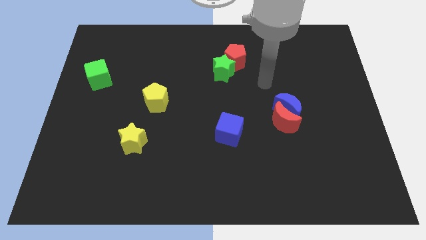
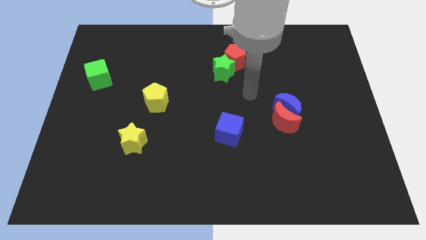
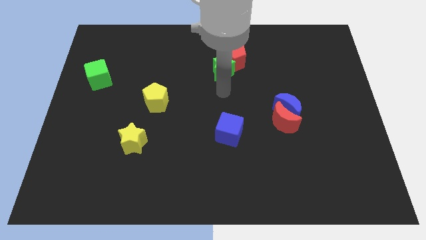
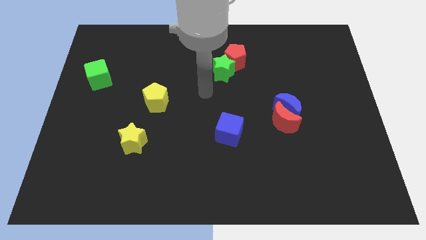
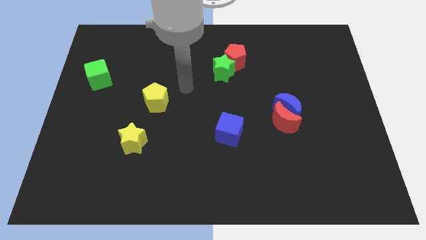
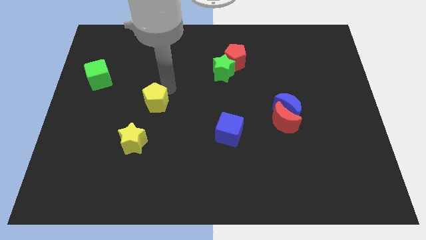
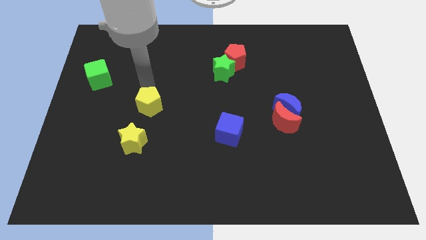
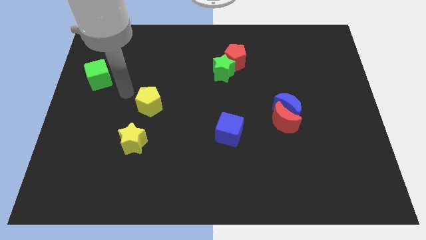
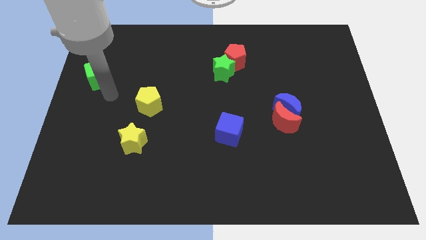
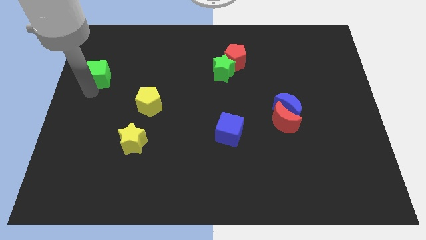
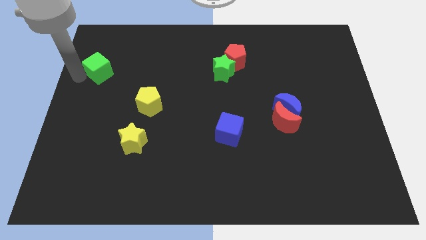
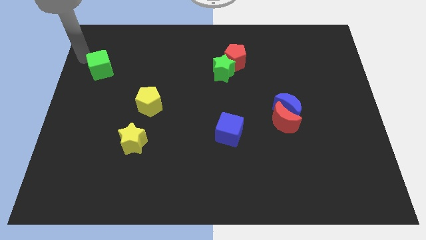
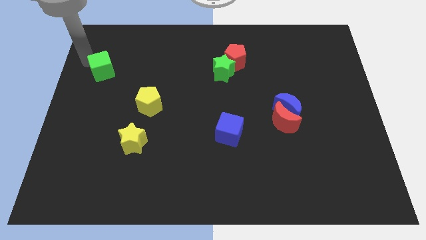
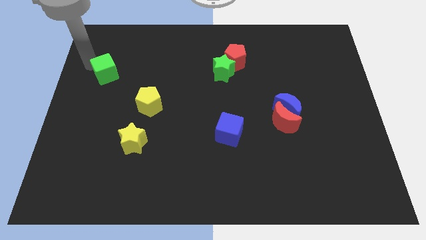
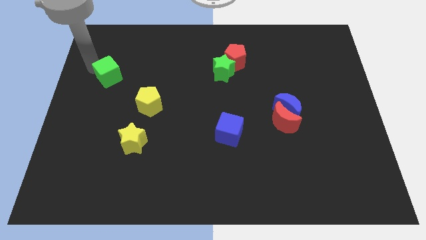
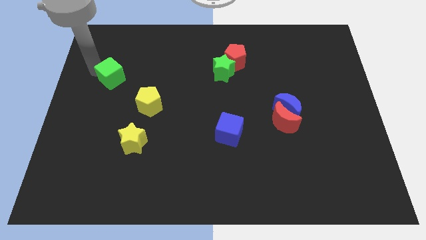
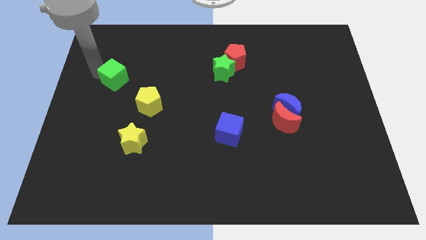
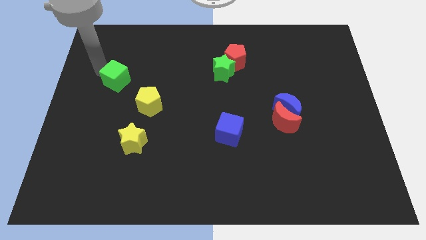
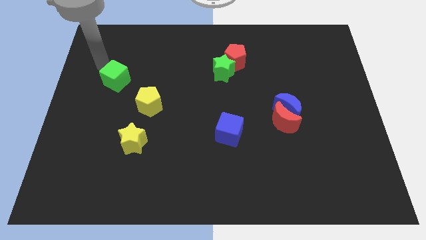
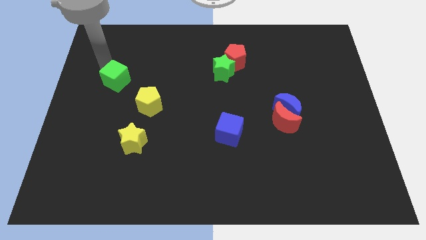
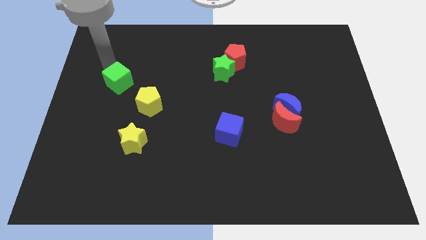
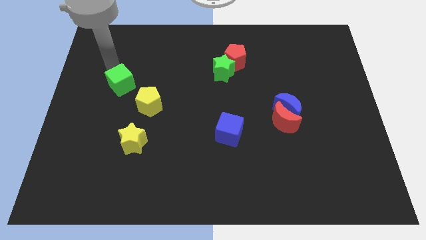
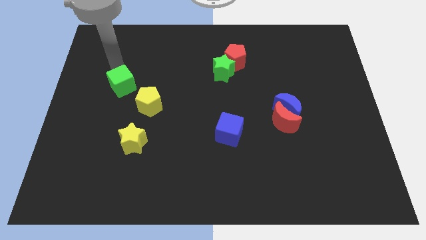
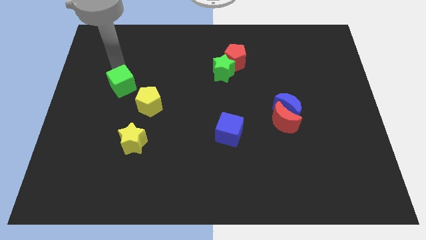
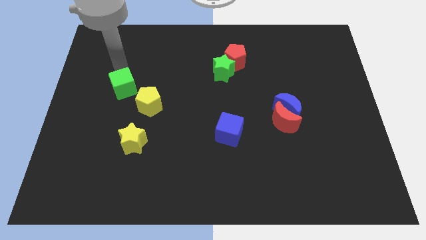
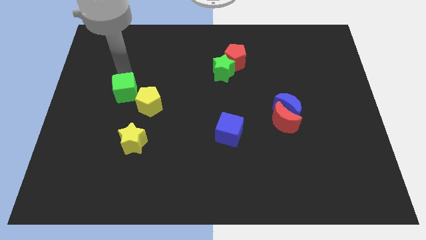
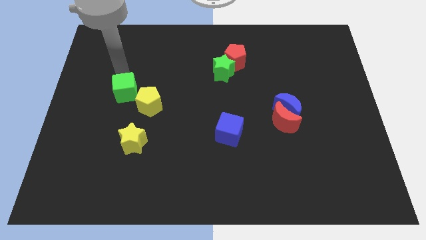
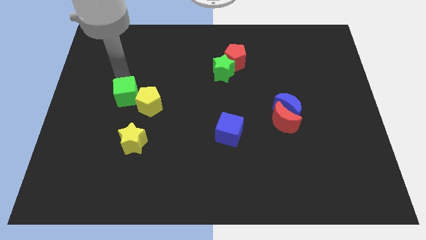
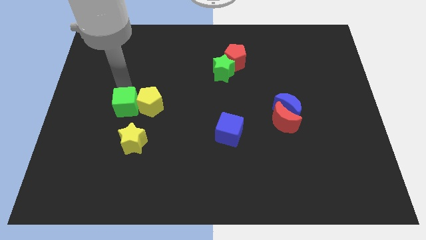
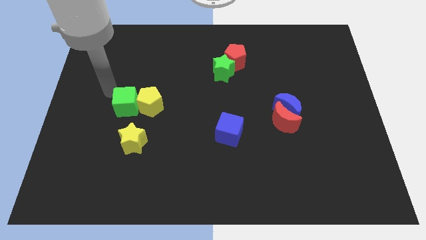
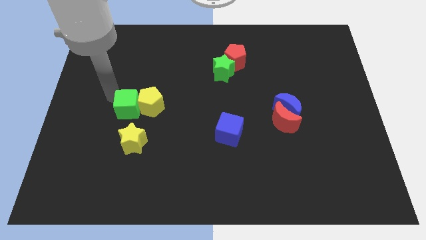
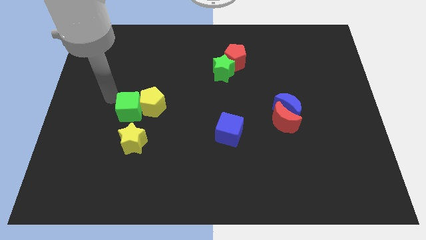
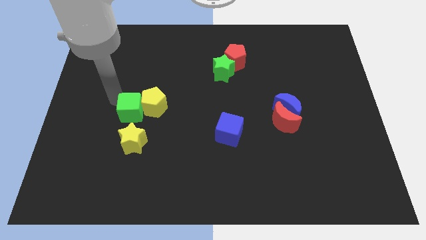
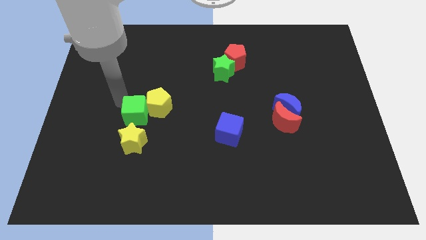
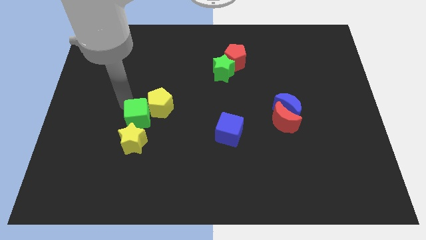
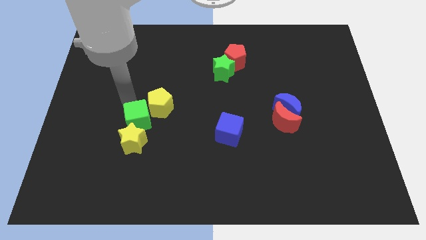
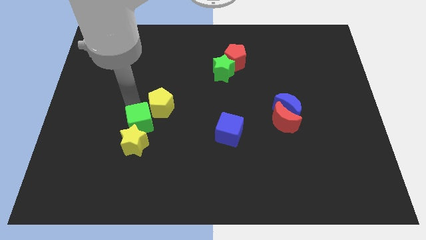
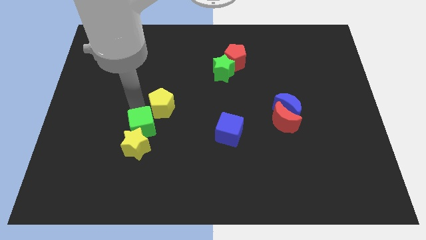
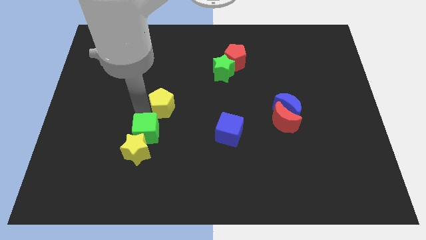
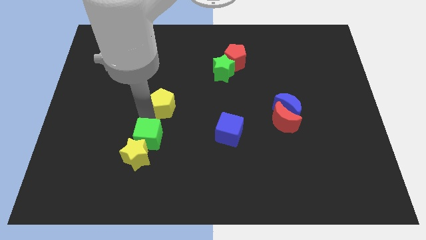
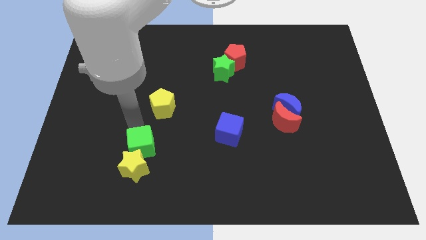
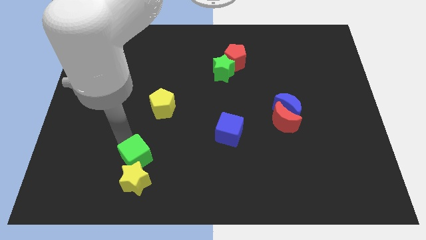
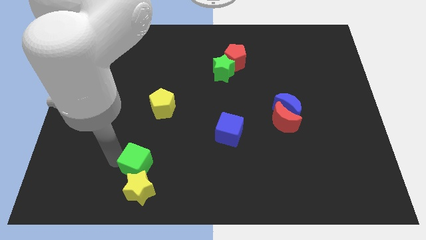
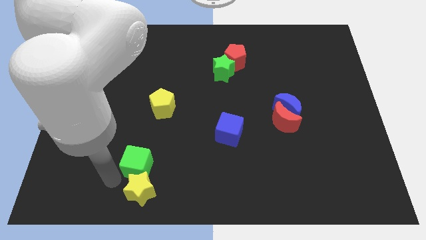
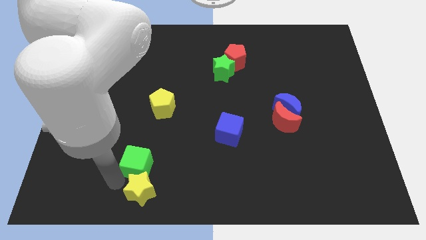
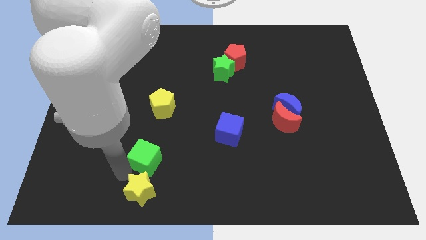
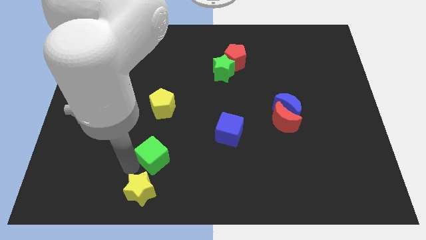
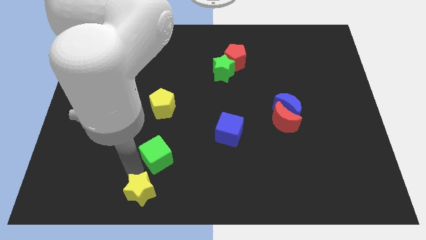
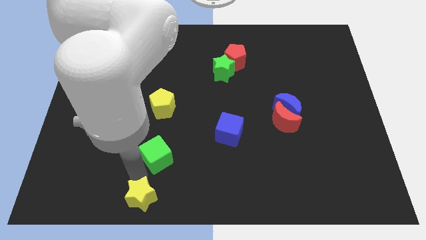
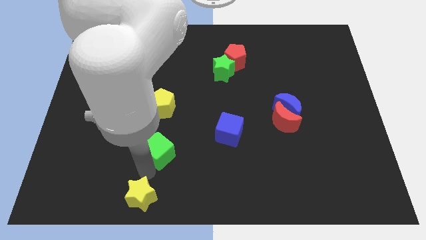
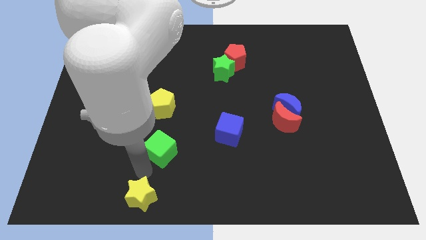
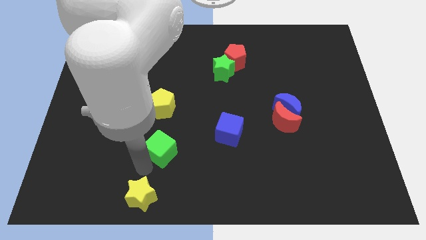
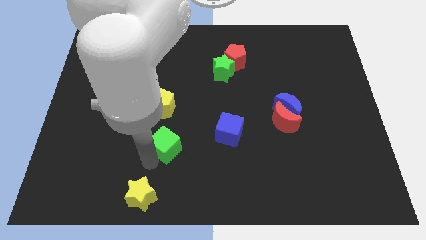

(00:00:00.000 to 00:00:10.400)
push the green cube to the left side of the blue cube

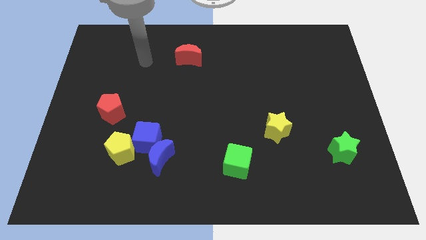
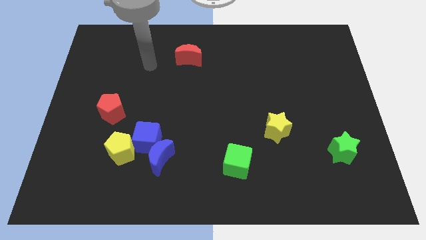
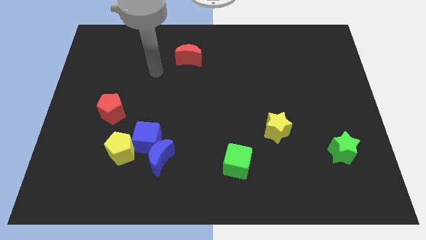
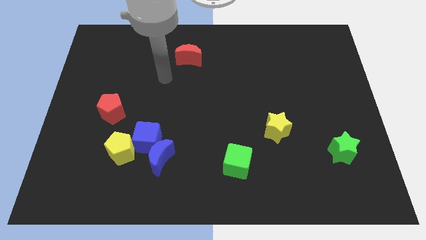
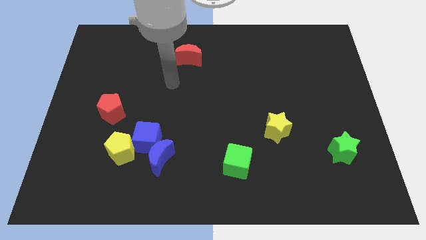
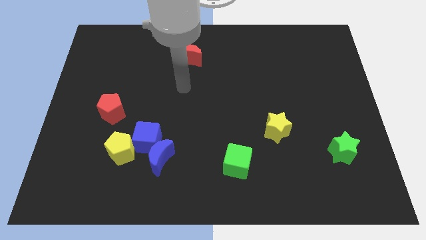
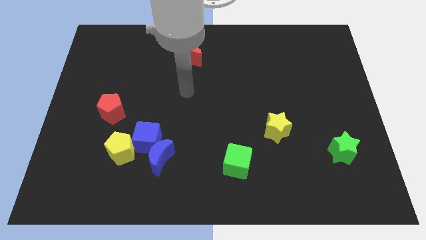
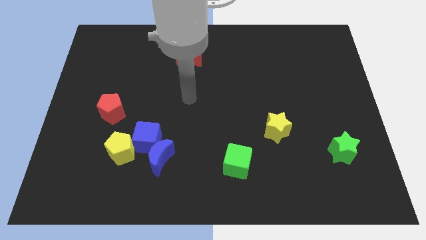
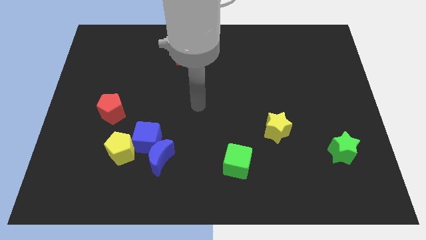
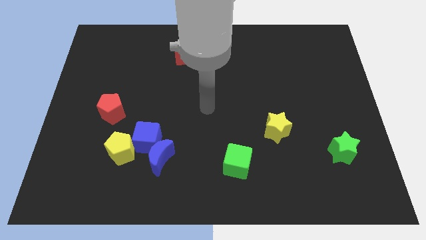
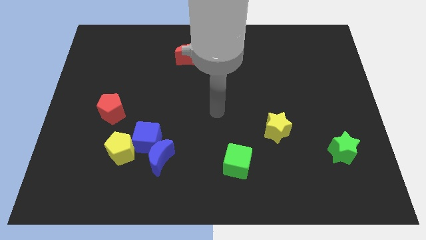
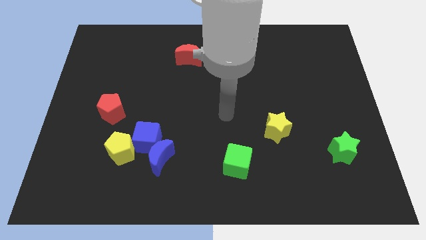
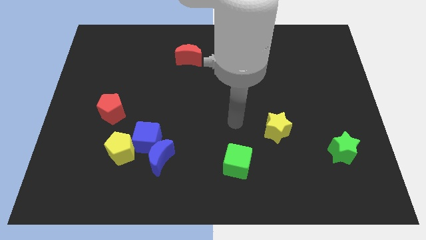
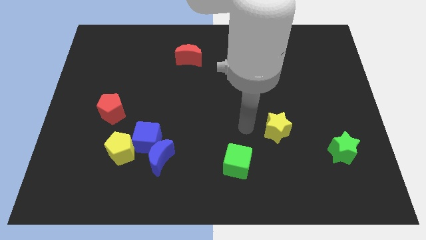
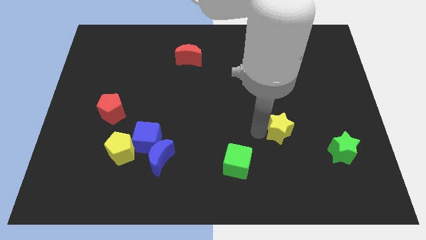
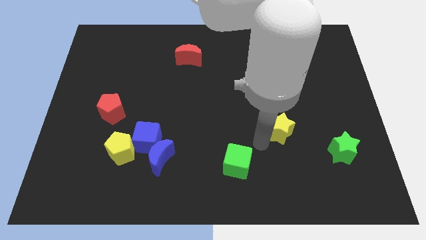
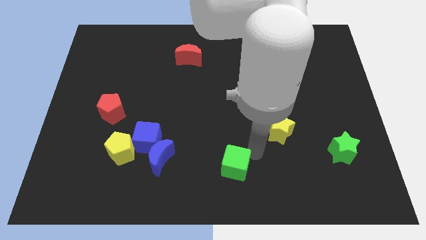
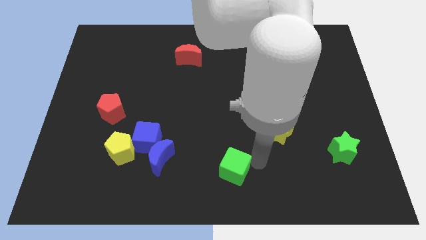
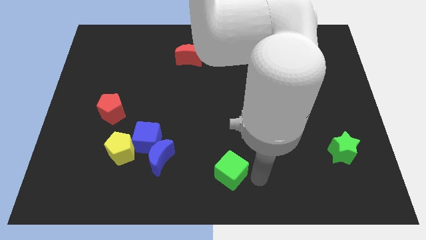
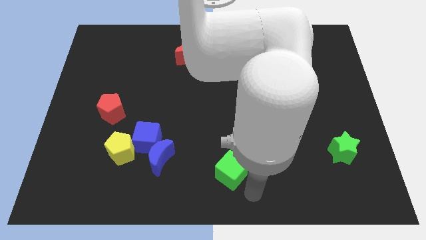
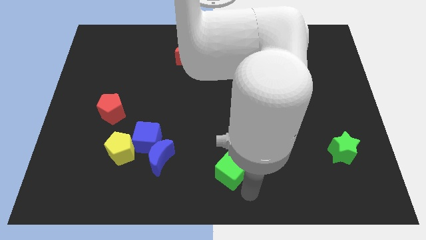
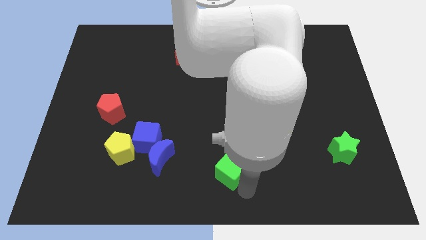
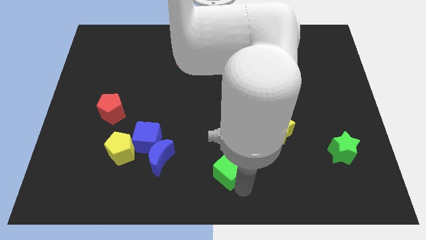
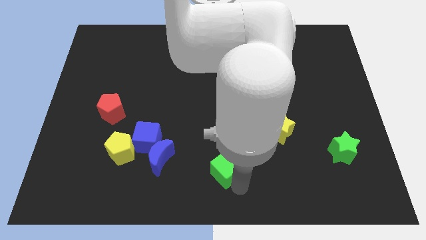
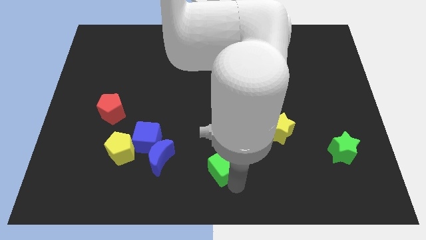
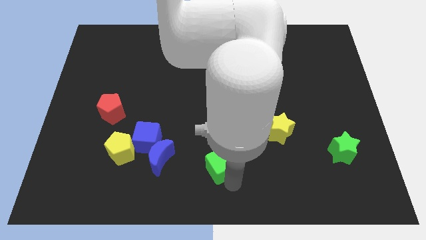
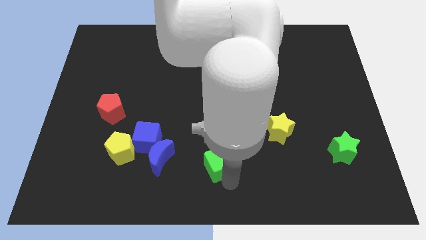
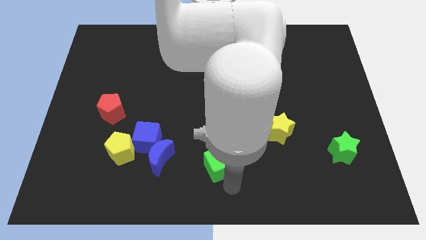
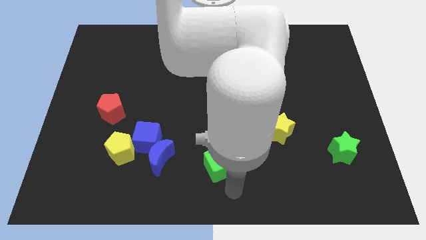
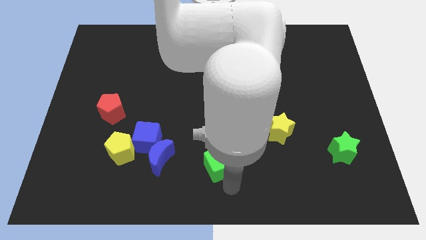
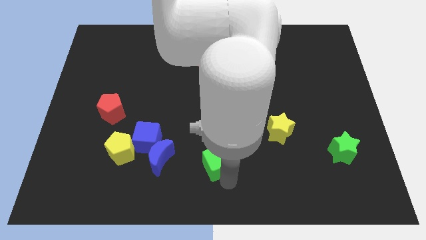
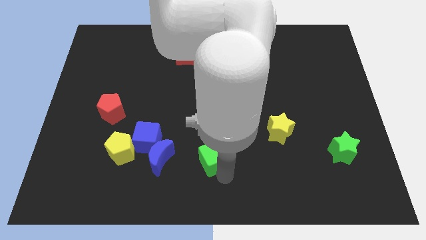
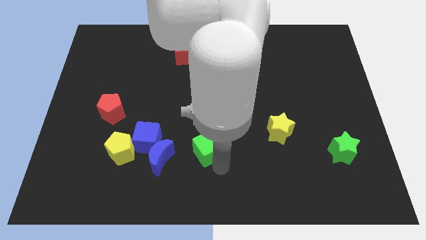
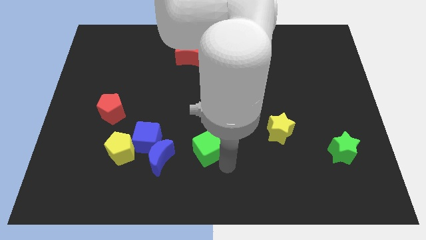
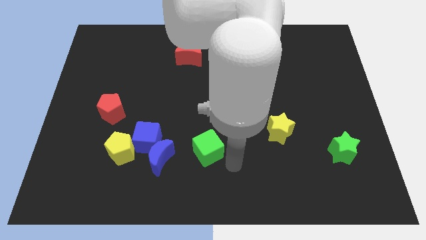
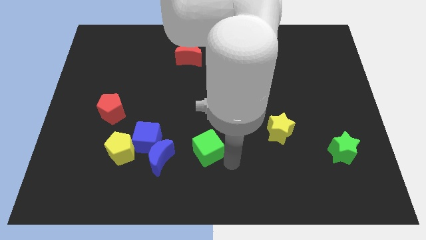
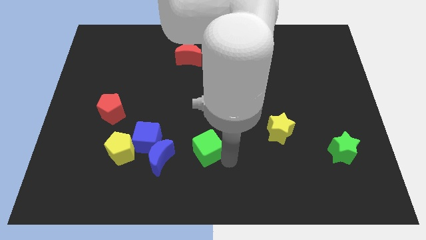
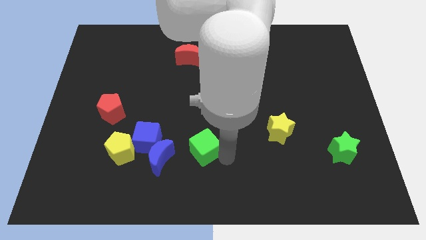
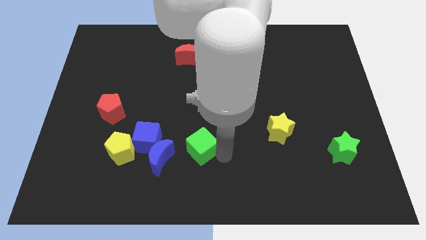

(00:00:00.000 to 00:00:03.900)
put the green cube diagonally up and to the right of the blue moon
